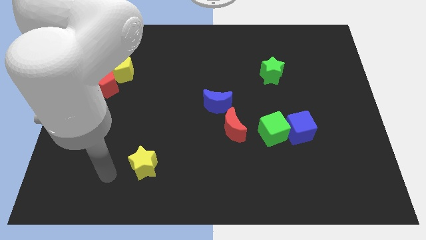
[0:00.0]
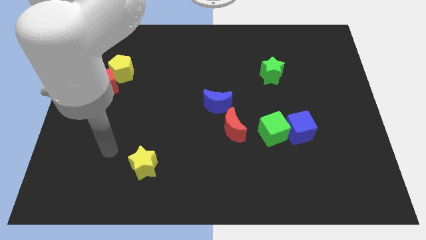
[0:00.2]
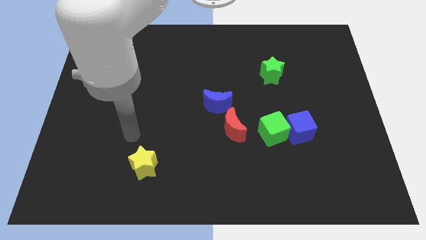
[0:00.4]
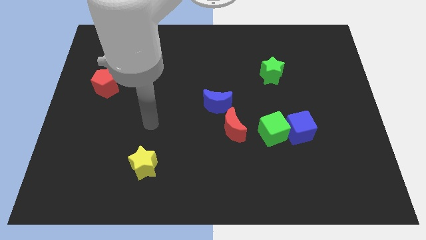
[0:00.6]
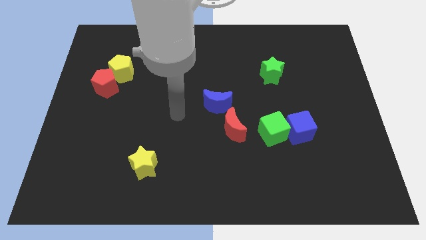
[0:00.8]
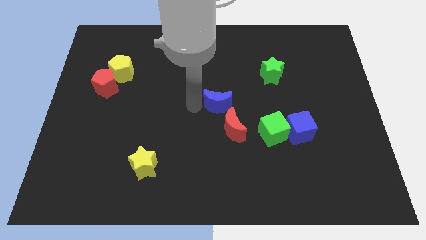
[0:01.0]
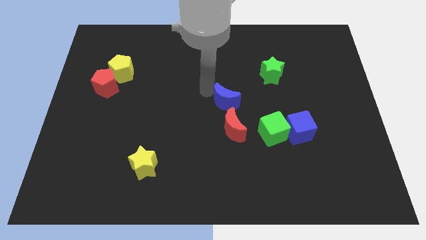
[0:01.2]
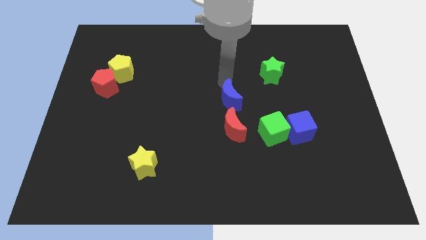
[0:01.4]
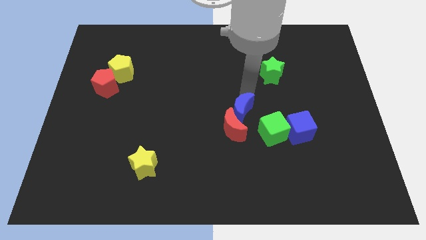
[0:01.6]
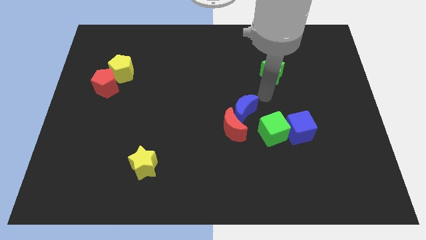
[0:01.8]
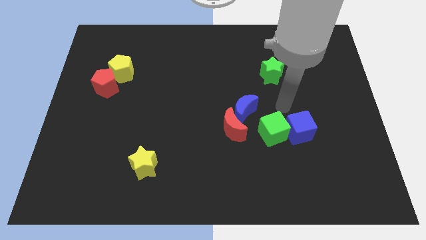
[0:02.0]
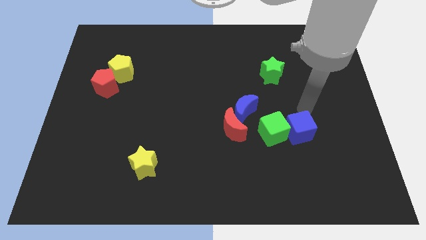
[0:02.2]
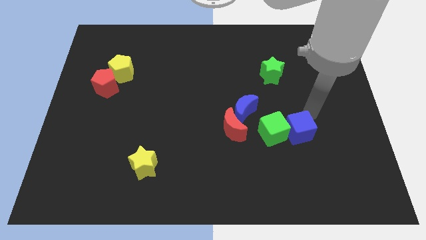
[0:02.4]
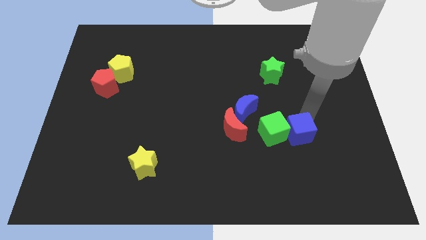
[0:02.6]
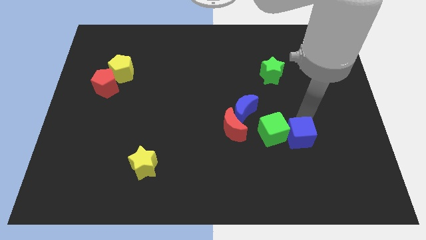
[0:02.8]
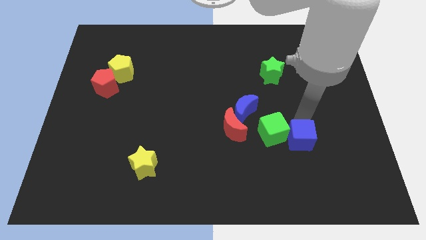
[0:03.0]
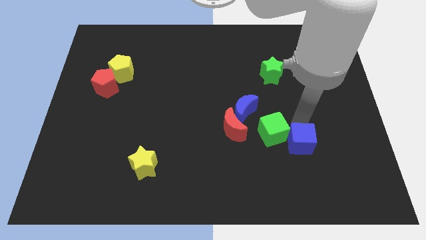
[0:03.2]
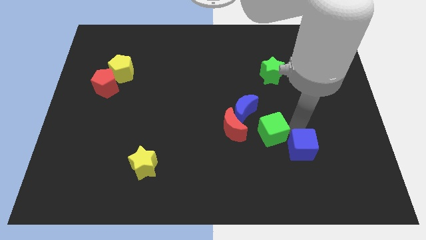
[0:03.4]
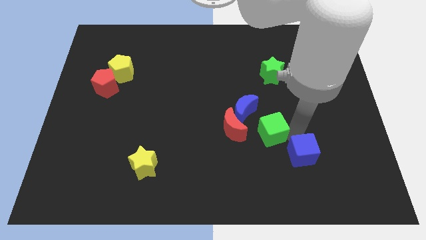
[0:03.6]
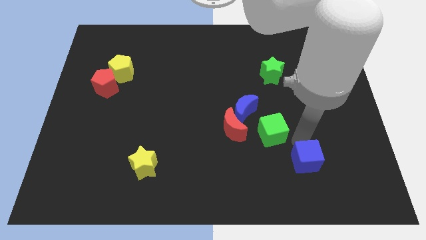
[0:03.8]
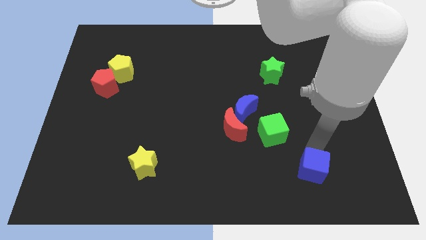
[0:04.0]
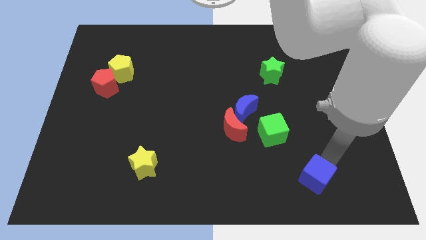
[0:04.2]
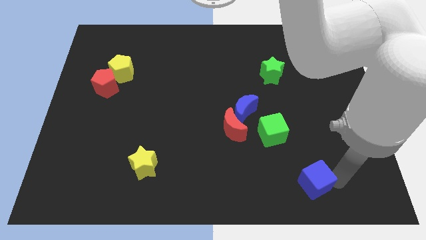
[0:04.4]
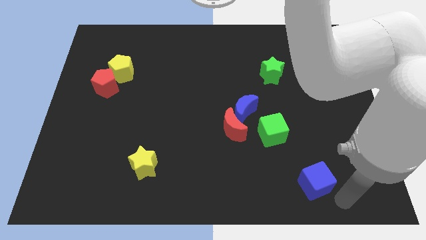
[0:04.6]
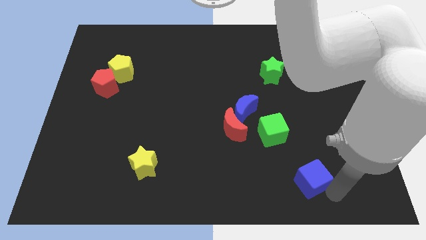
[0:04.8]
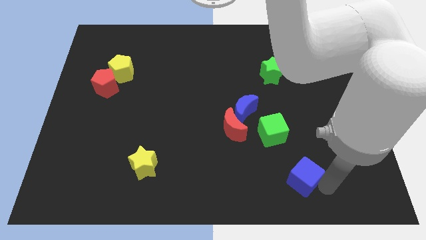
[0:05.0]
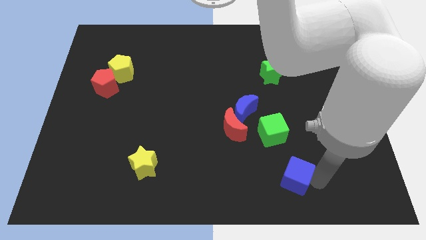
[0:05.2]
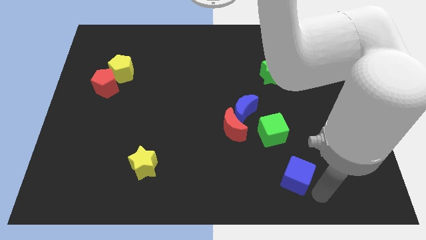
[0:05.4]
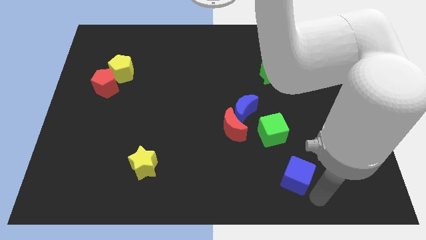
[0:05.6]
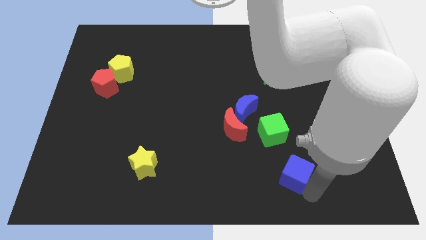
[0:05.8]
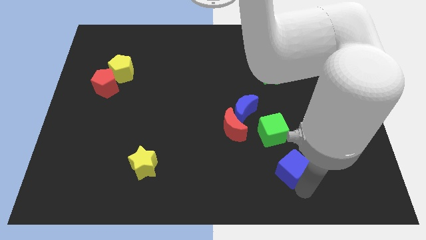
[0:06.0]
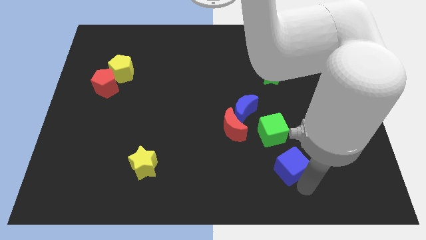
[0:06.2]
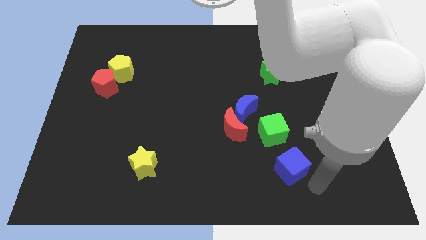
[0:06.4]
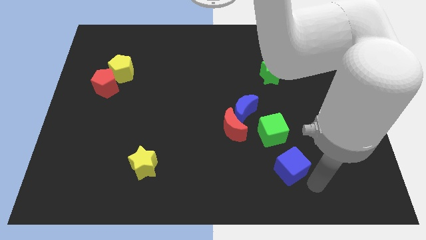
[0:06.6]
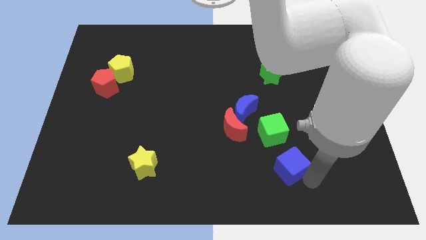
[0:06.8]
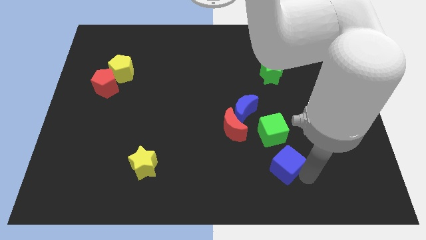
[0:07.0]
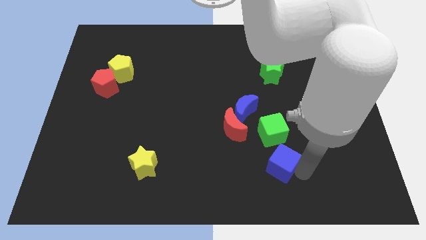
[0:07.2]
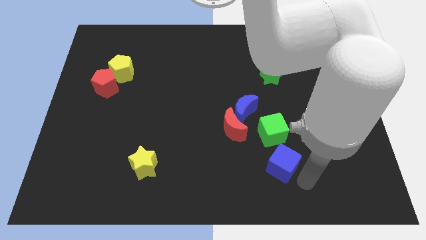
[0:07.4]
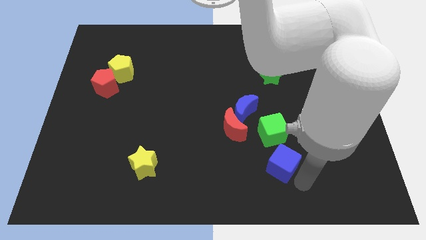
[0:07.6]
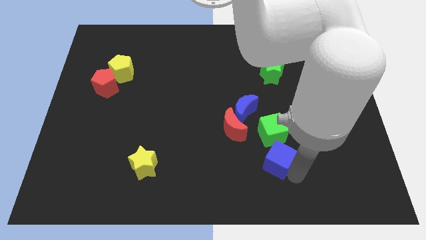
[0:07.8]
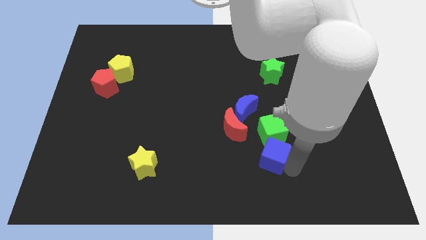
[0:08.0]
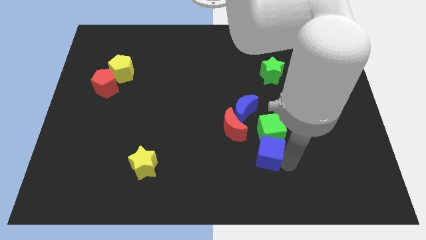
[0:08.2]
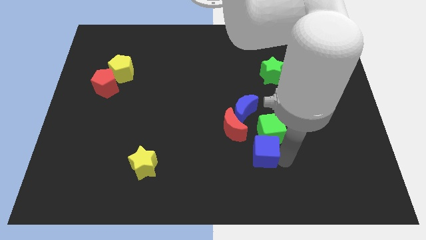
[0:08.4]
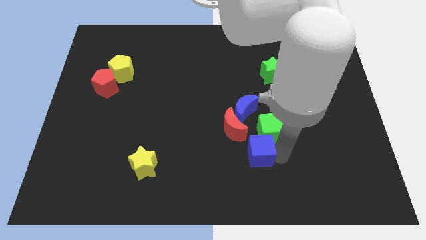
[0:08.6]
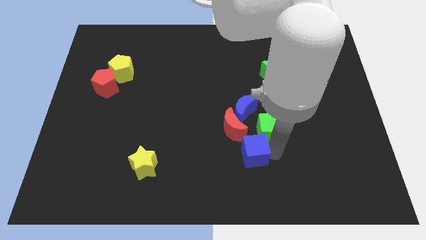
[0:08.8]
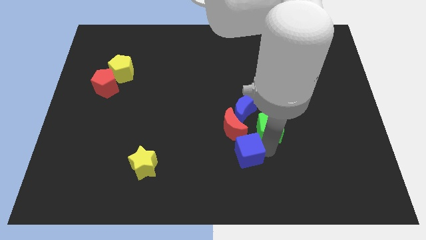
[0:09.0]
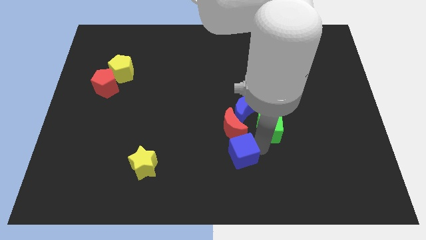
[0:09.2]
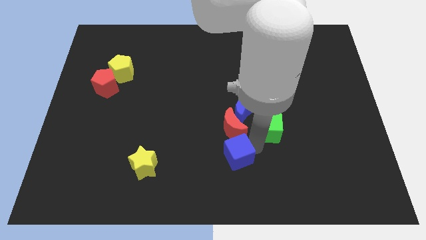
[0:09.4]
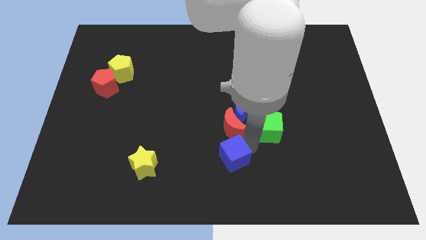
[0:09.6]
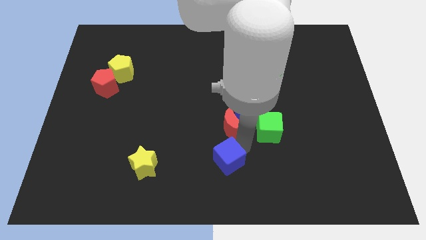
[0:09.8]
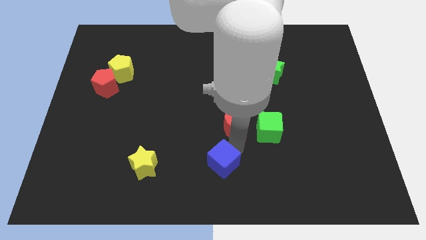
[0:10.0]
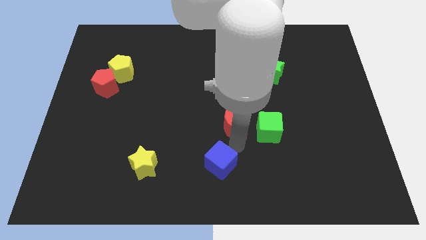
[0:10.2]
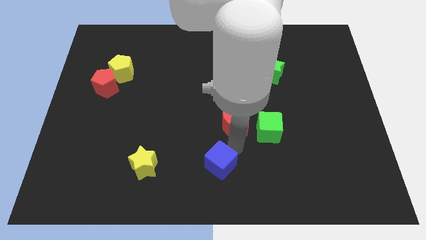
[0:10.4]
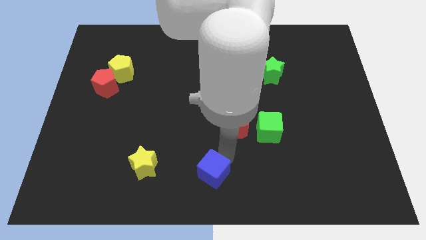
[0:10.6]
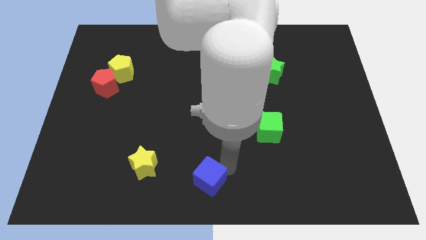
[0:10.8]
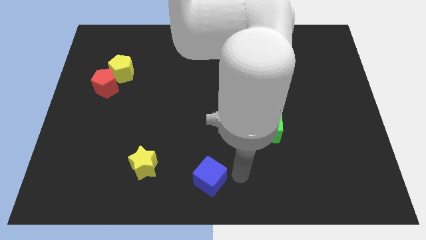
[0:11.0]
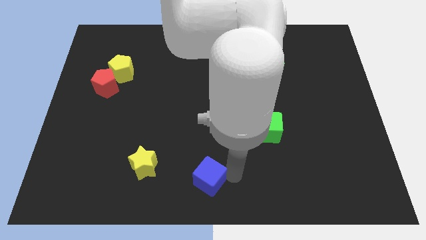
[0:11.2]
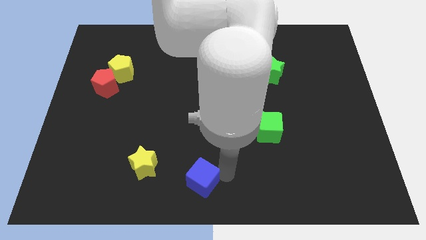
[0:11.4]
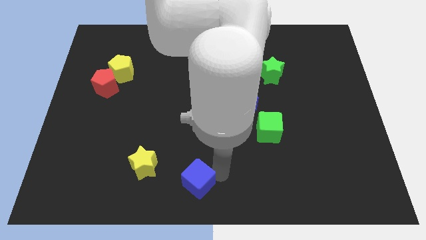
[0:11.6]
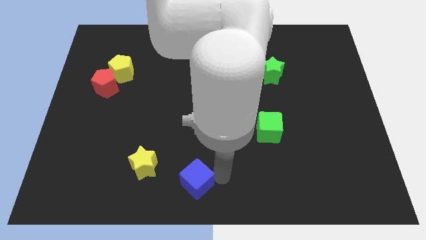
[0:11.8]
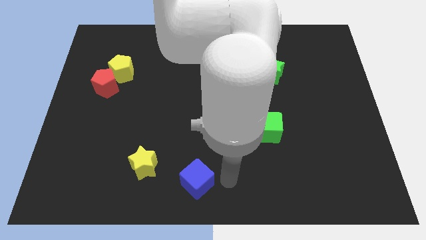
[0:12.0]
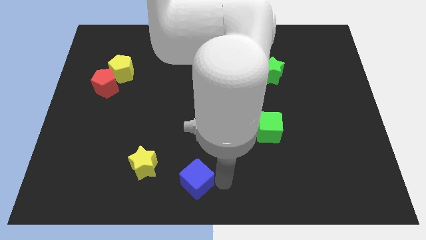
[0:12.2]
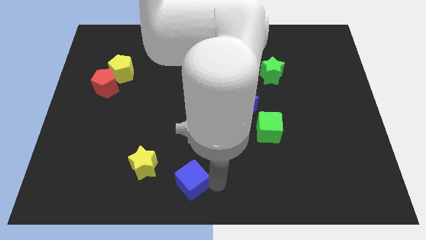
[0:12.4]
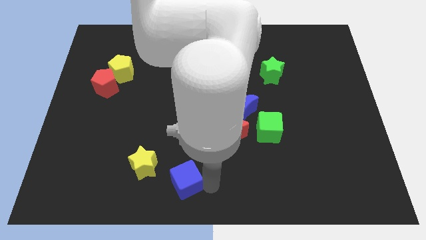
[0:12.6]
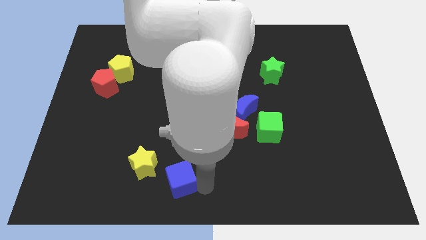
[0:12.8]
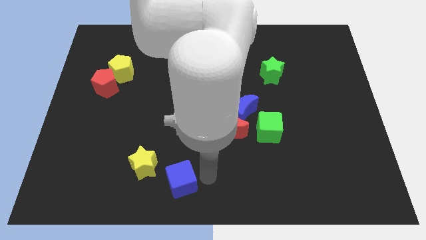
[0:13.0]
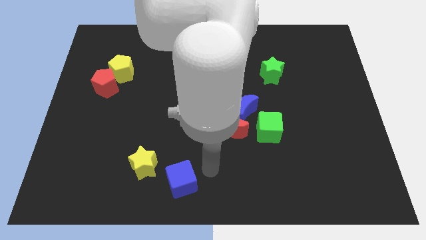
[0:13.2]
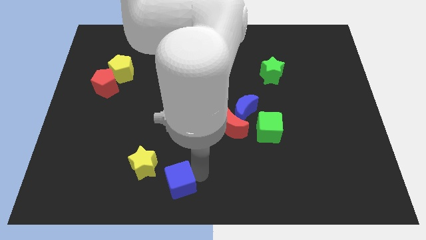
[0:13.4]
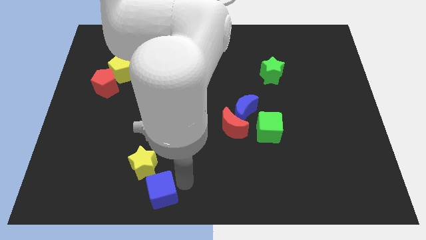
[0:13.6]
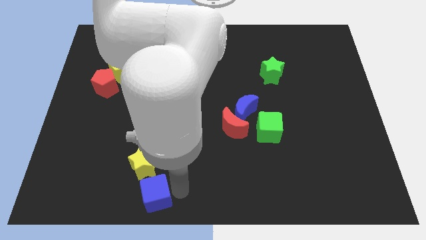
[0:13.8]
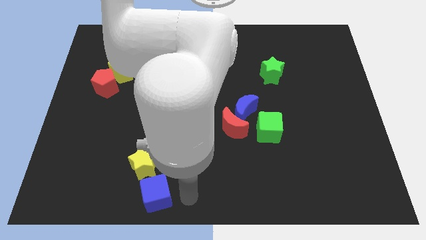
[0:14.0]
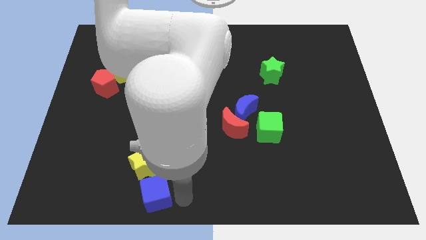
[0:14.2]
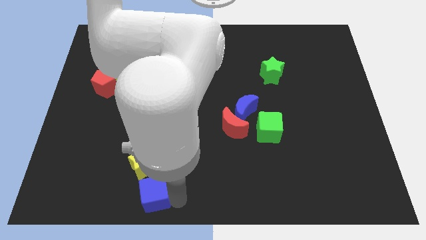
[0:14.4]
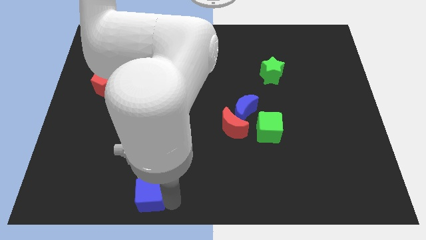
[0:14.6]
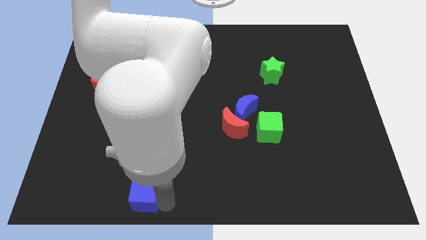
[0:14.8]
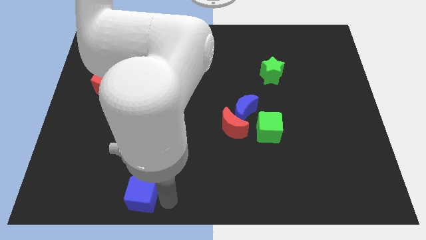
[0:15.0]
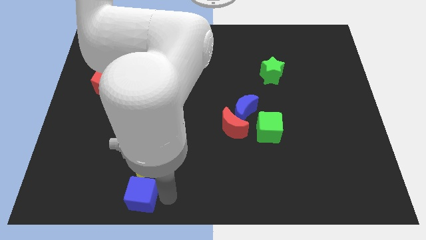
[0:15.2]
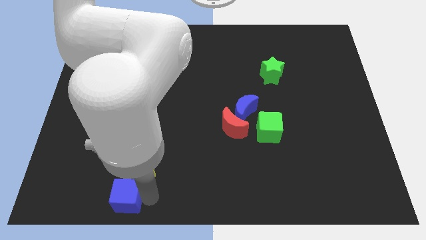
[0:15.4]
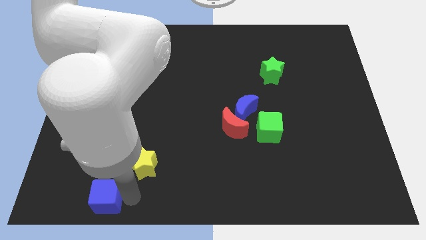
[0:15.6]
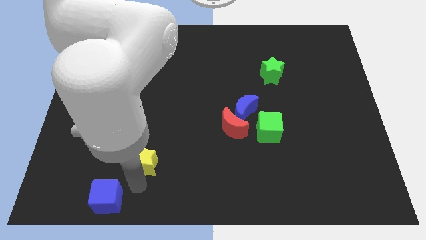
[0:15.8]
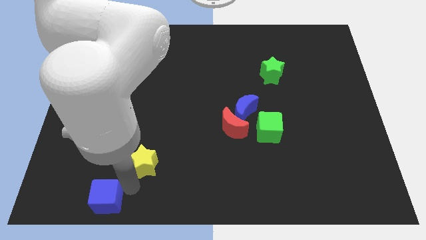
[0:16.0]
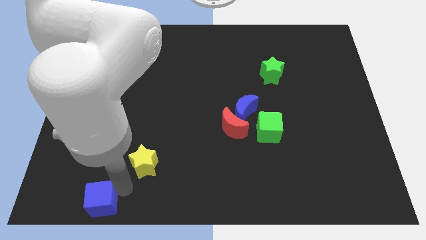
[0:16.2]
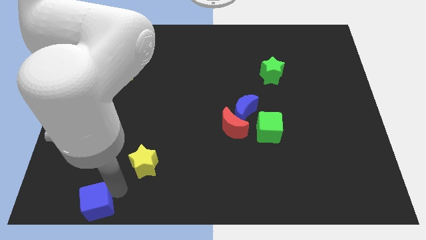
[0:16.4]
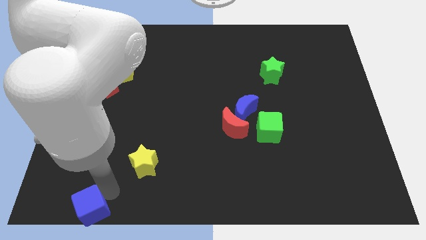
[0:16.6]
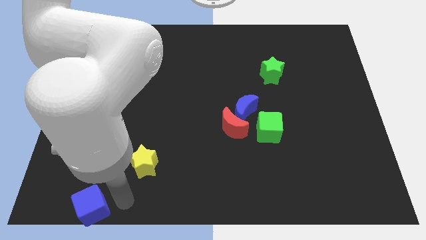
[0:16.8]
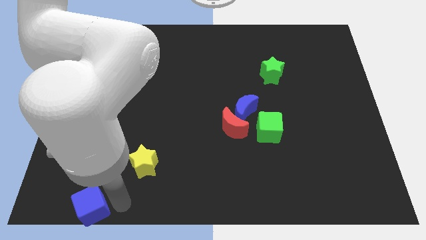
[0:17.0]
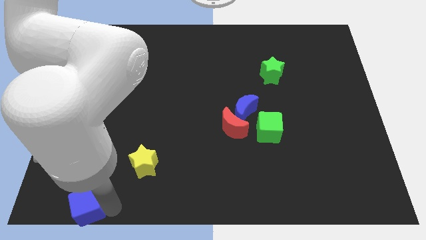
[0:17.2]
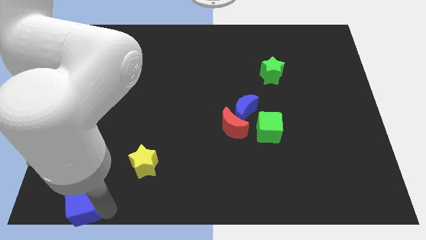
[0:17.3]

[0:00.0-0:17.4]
put the blue cube to the bottom left
